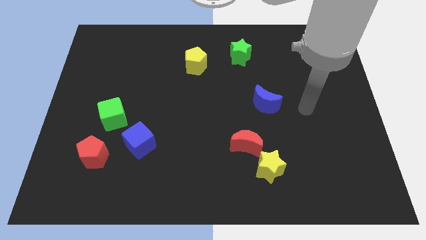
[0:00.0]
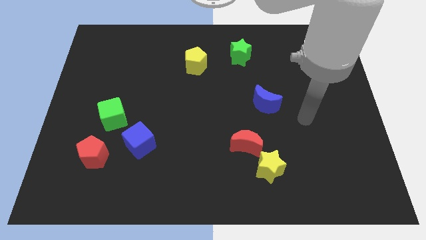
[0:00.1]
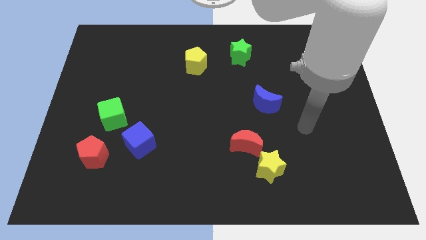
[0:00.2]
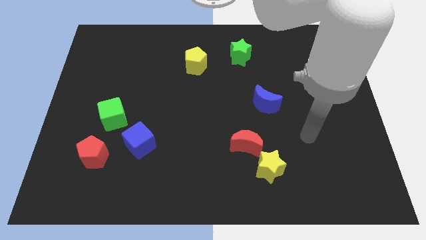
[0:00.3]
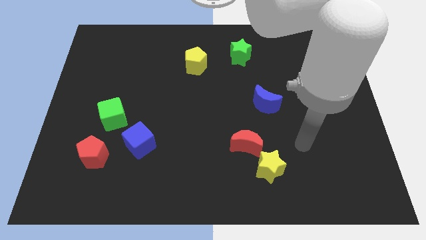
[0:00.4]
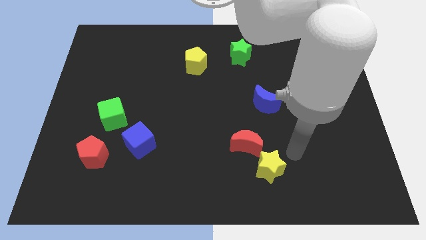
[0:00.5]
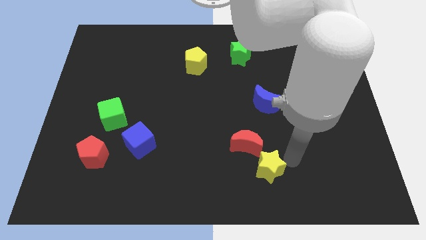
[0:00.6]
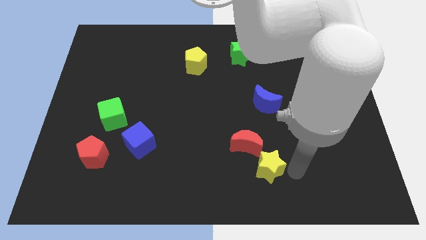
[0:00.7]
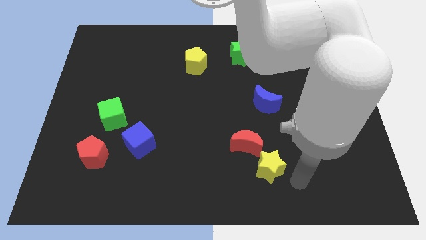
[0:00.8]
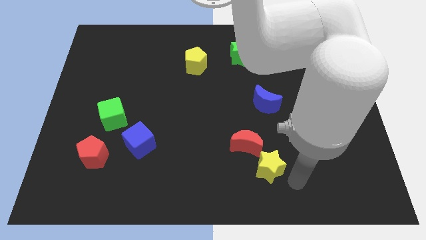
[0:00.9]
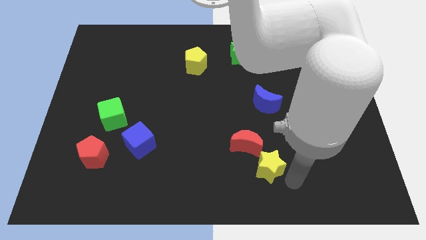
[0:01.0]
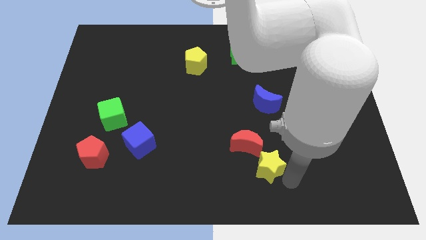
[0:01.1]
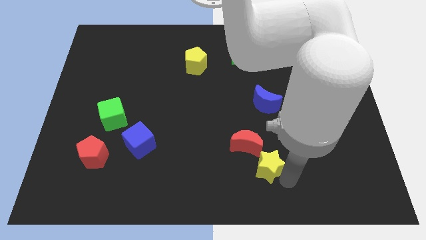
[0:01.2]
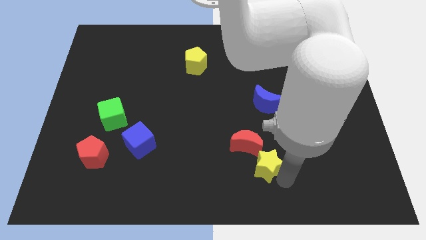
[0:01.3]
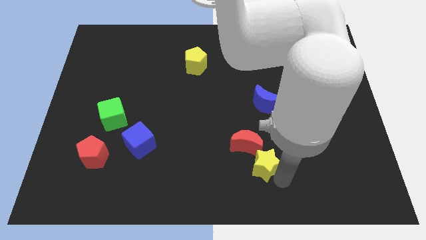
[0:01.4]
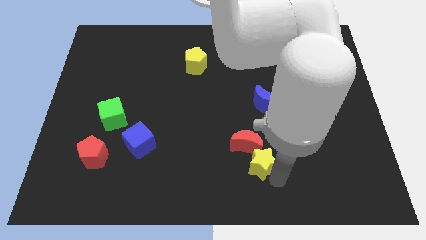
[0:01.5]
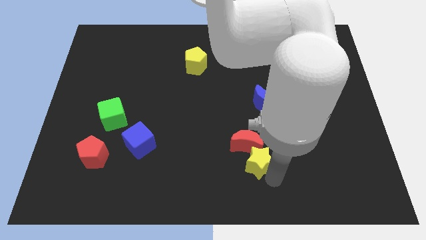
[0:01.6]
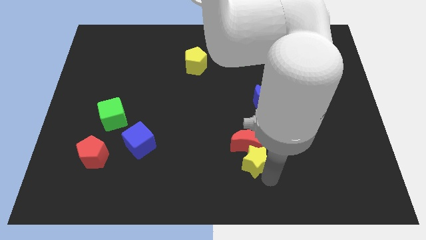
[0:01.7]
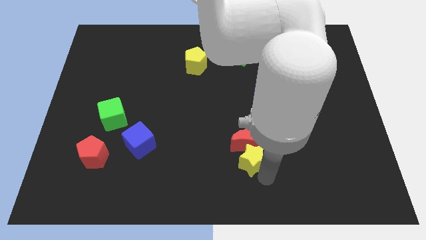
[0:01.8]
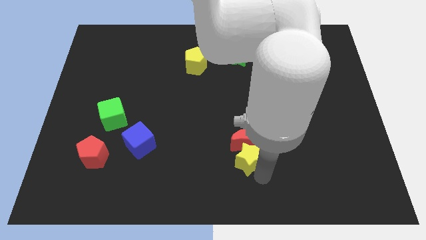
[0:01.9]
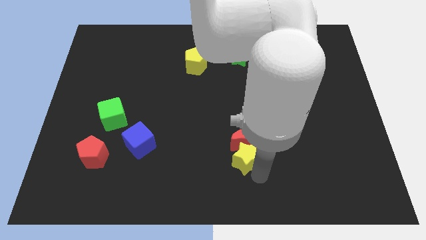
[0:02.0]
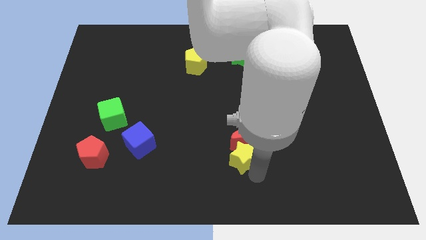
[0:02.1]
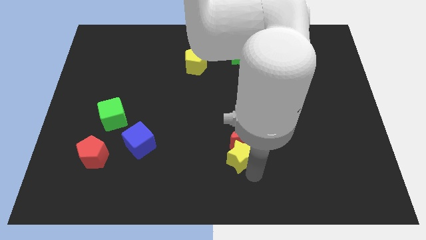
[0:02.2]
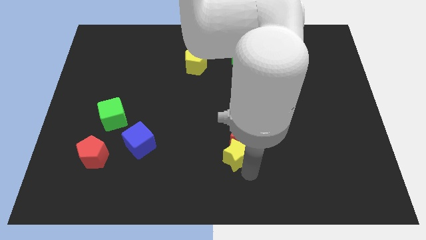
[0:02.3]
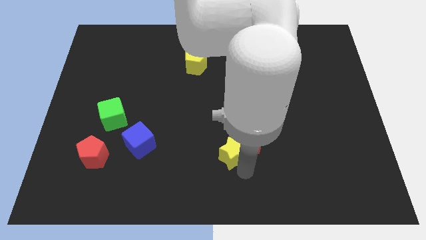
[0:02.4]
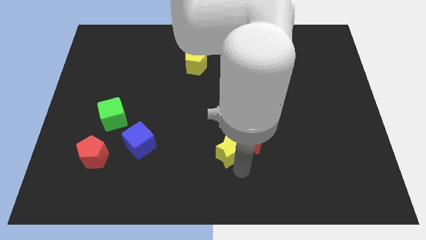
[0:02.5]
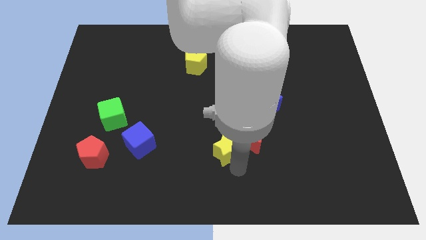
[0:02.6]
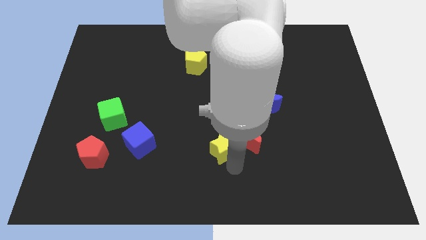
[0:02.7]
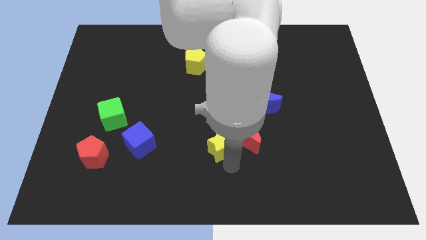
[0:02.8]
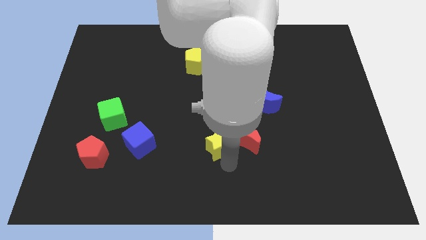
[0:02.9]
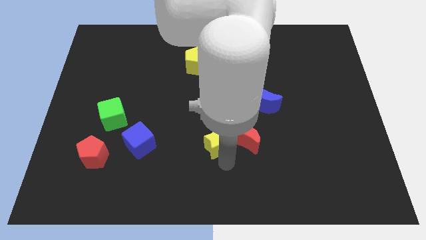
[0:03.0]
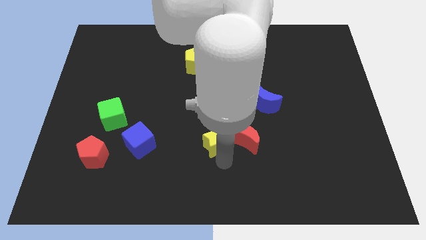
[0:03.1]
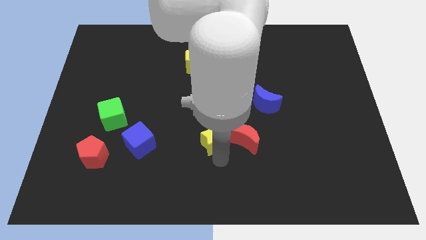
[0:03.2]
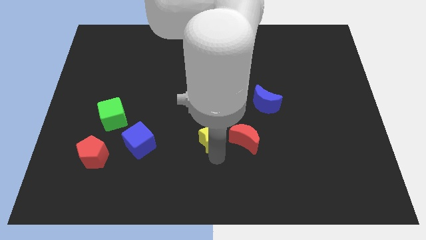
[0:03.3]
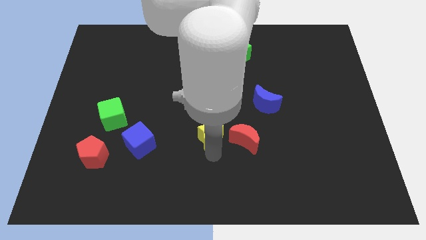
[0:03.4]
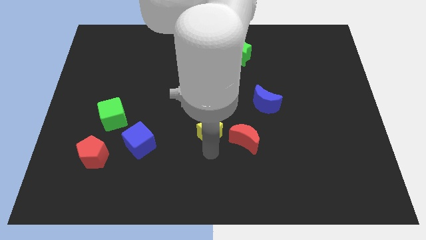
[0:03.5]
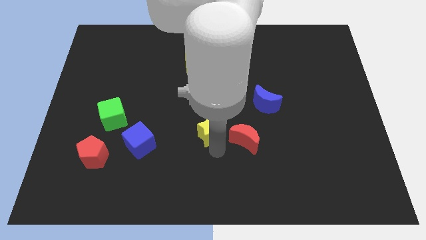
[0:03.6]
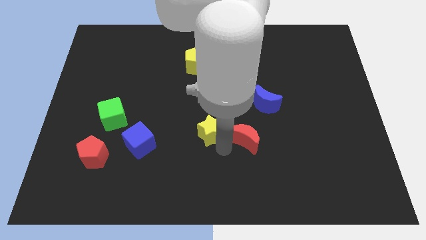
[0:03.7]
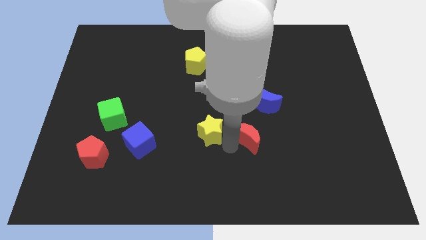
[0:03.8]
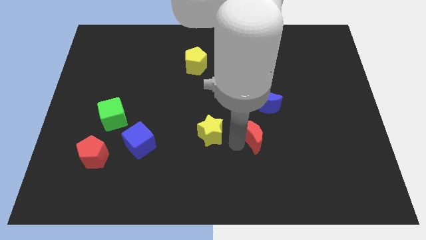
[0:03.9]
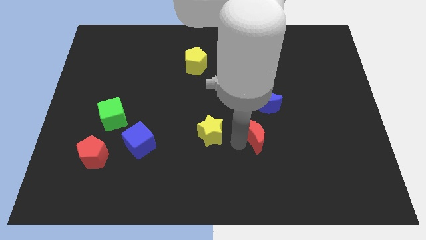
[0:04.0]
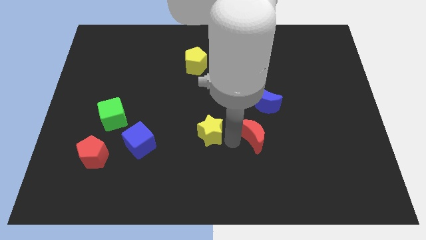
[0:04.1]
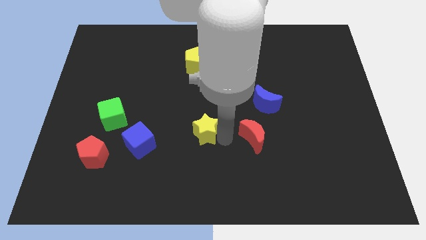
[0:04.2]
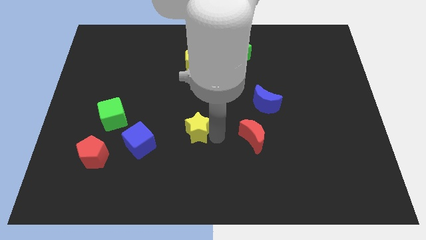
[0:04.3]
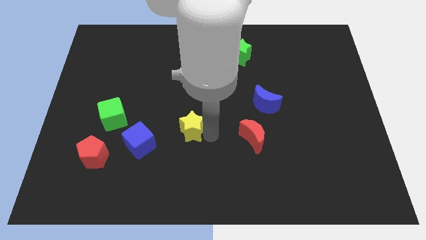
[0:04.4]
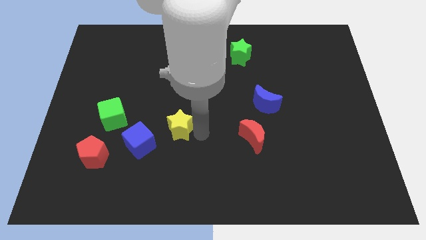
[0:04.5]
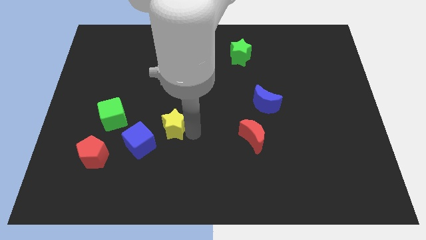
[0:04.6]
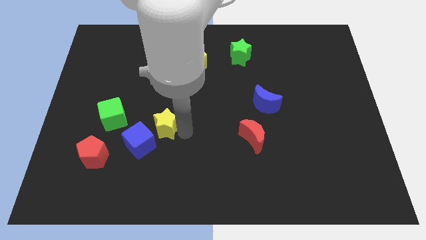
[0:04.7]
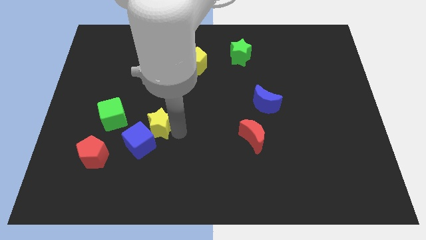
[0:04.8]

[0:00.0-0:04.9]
push the yellow star to the top side of the blue cube

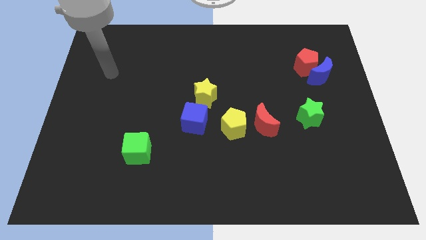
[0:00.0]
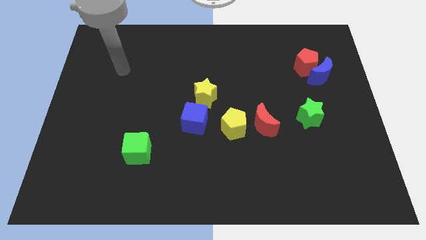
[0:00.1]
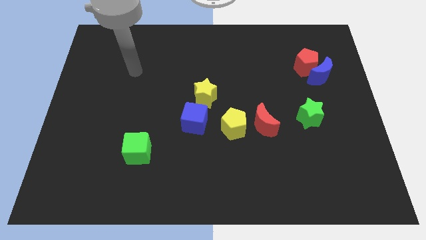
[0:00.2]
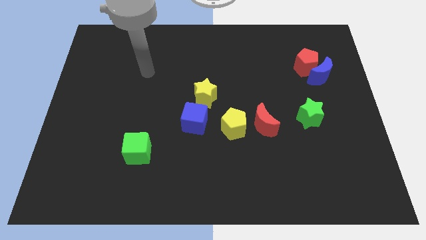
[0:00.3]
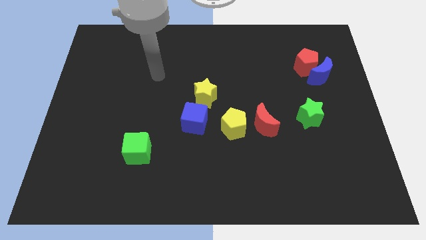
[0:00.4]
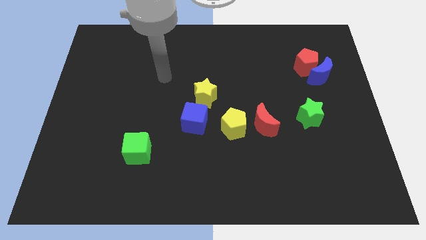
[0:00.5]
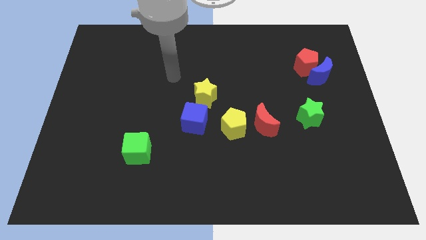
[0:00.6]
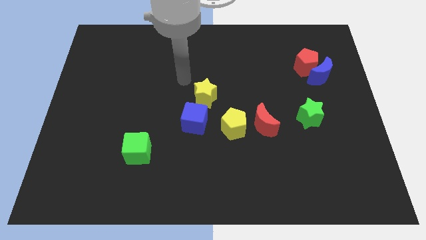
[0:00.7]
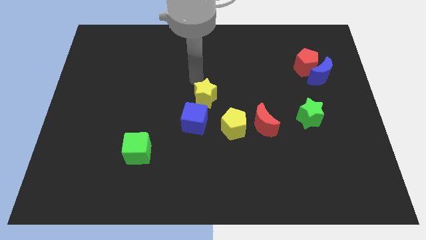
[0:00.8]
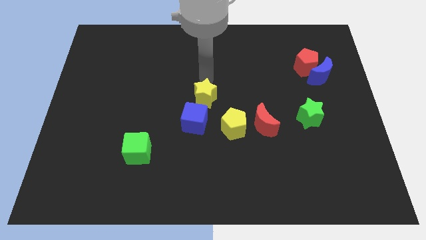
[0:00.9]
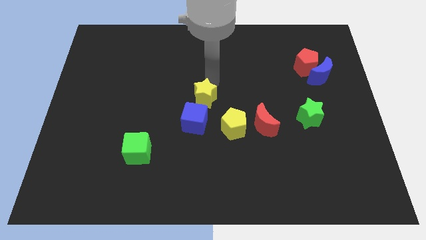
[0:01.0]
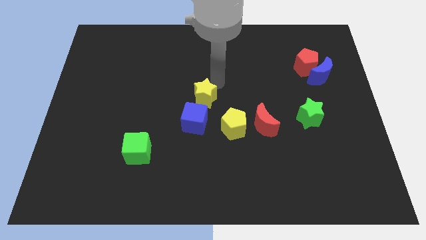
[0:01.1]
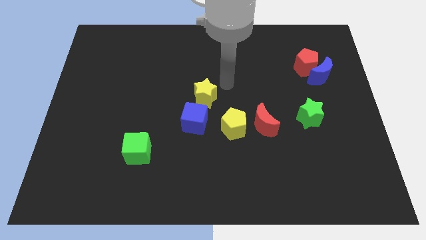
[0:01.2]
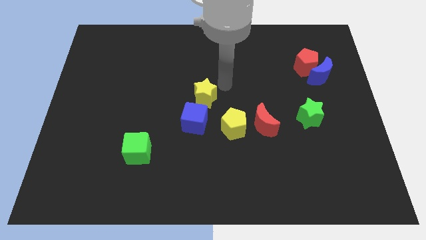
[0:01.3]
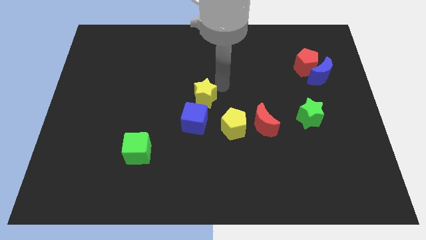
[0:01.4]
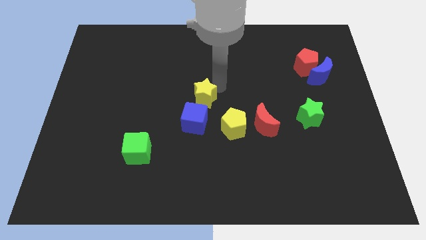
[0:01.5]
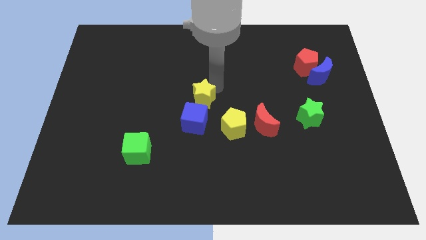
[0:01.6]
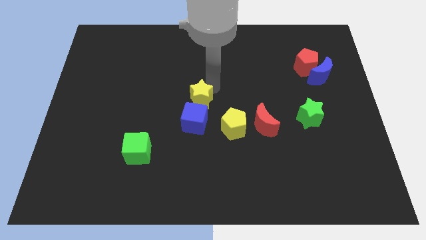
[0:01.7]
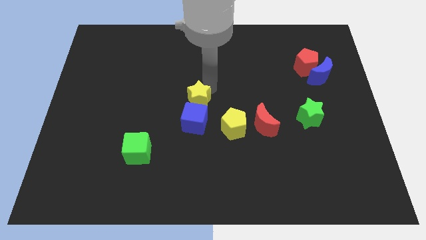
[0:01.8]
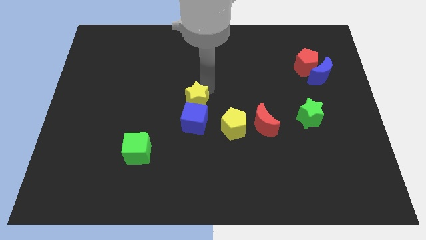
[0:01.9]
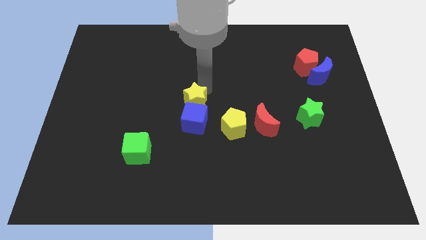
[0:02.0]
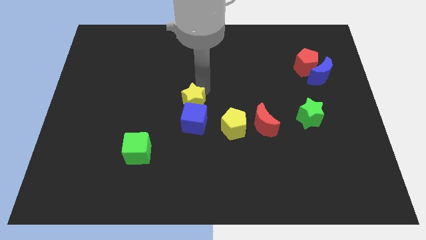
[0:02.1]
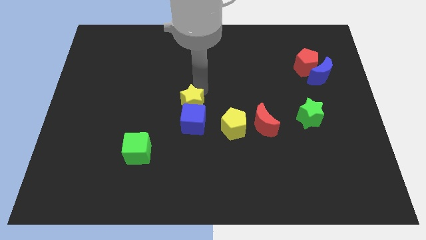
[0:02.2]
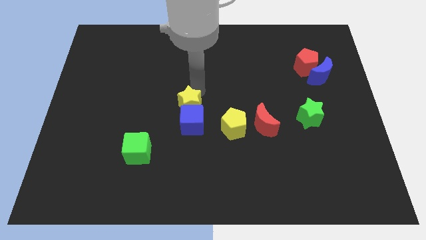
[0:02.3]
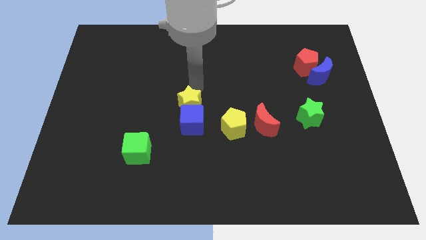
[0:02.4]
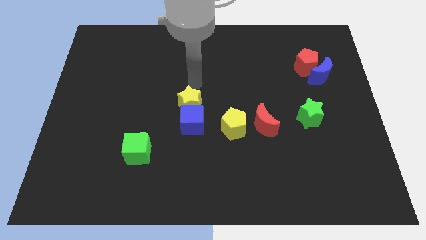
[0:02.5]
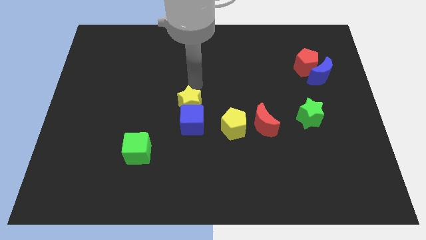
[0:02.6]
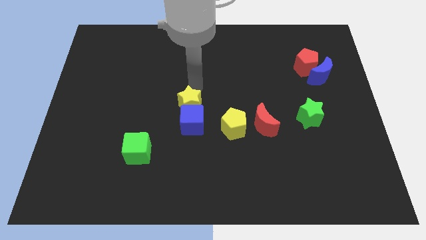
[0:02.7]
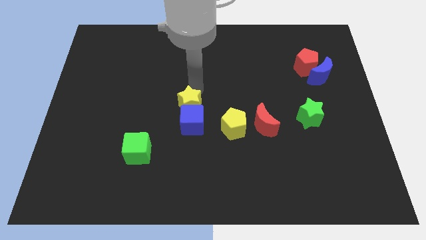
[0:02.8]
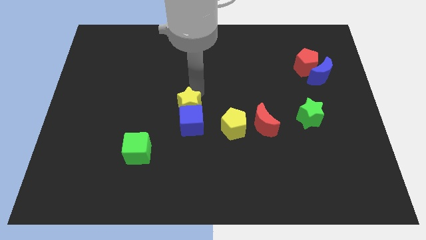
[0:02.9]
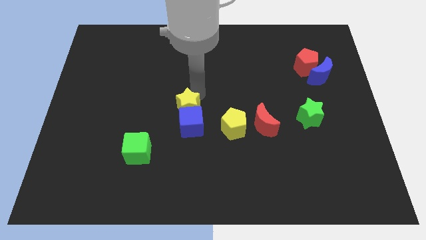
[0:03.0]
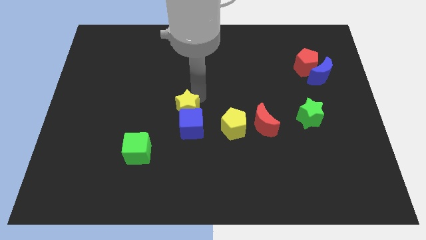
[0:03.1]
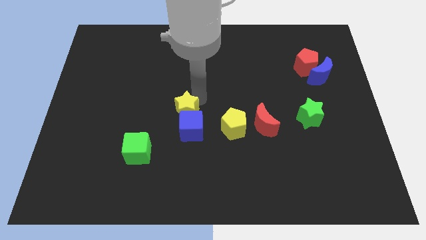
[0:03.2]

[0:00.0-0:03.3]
put the yellow star left of the yellow pentagon
